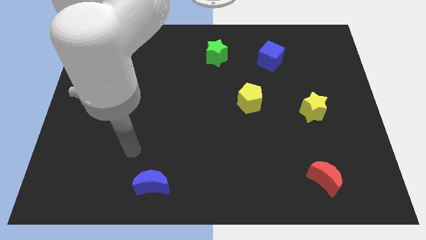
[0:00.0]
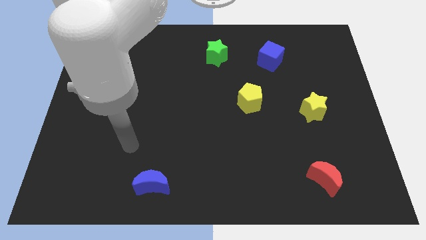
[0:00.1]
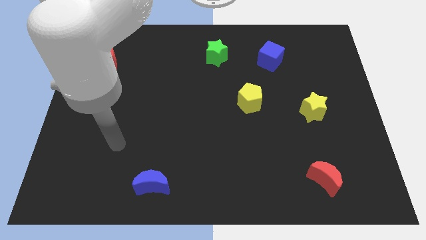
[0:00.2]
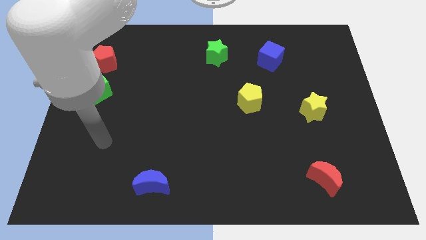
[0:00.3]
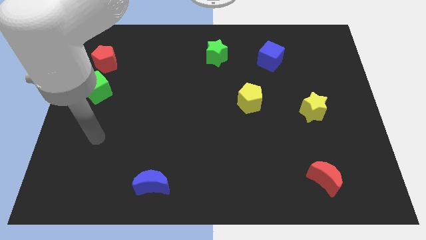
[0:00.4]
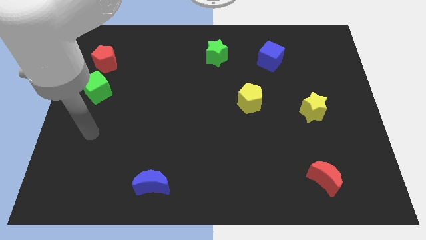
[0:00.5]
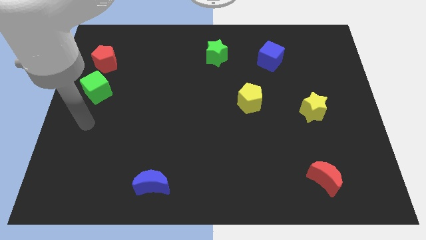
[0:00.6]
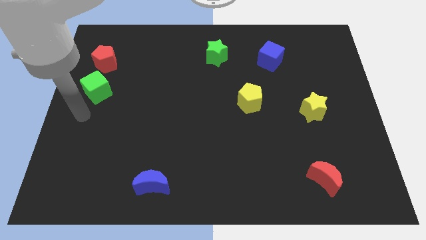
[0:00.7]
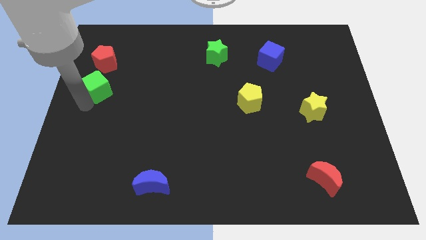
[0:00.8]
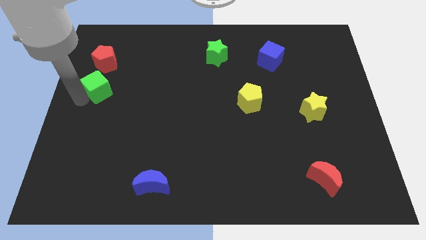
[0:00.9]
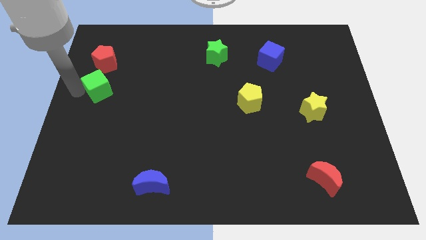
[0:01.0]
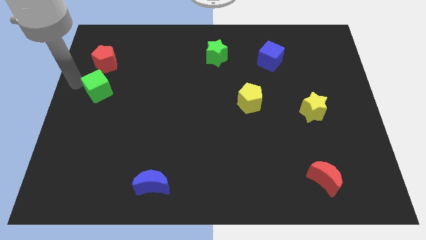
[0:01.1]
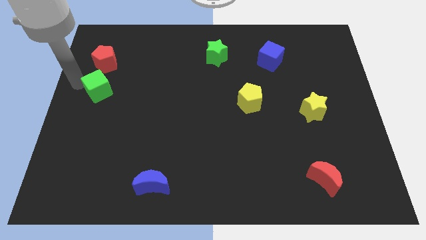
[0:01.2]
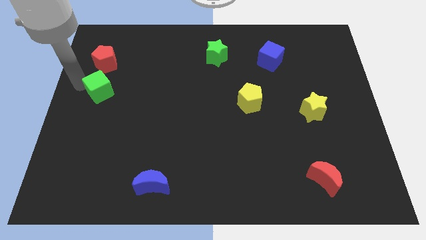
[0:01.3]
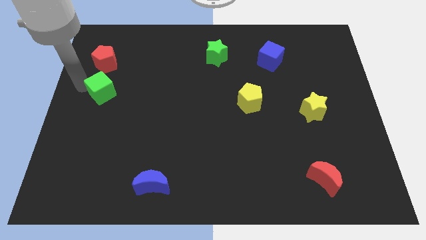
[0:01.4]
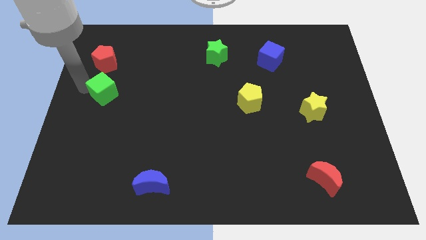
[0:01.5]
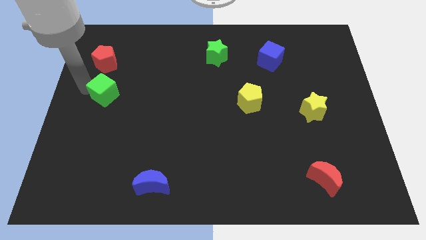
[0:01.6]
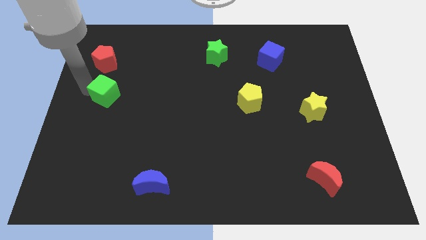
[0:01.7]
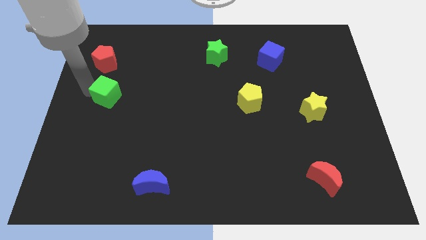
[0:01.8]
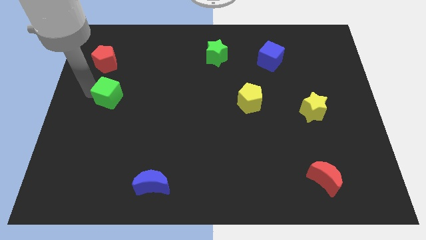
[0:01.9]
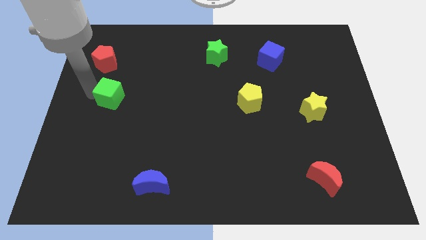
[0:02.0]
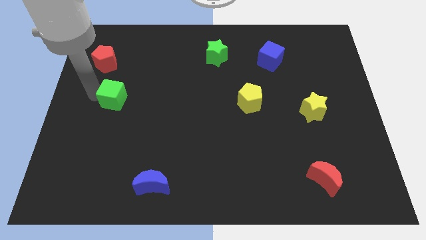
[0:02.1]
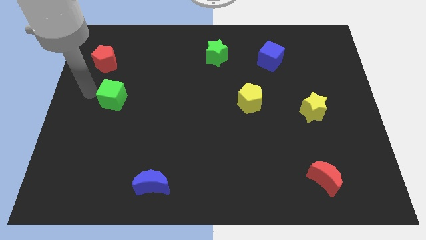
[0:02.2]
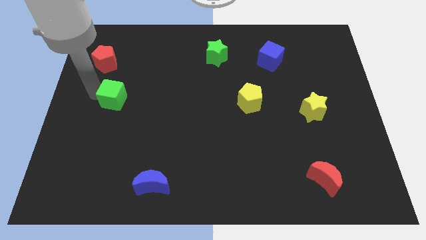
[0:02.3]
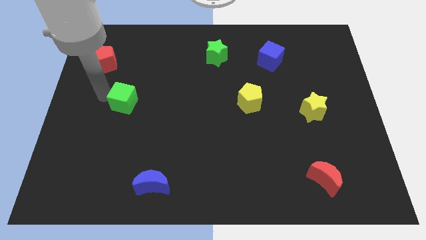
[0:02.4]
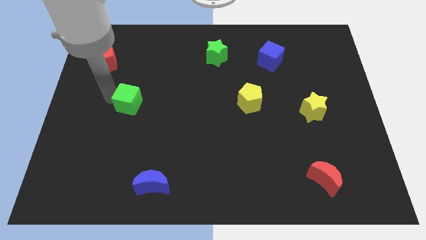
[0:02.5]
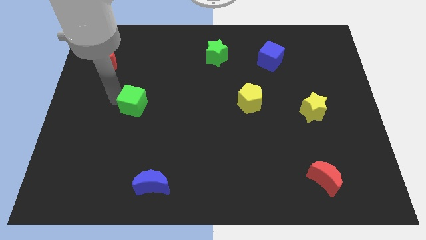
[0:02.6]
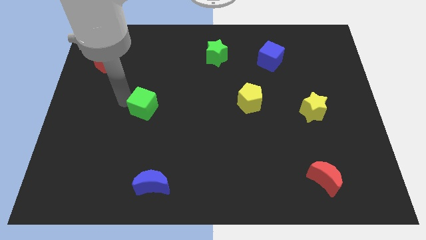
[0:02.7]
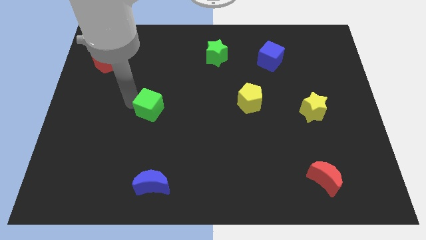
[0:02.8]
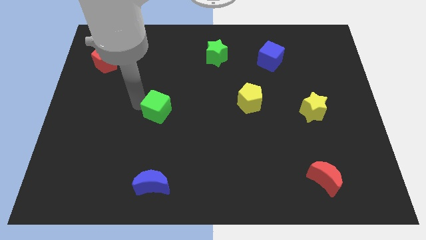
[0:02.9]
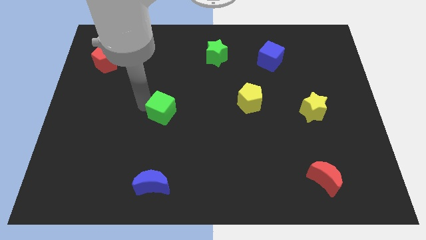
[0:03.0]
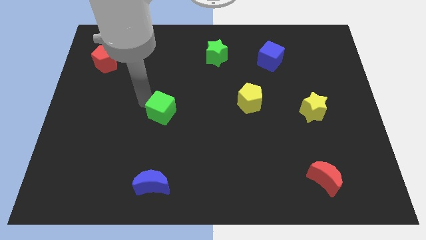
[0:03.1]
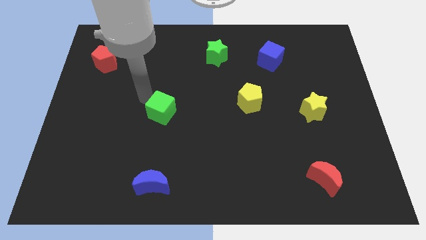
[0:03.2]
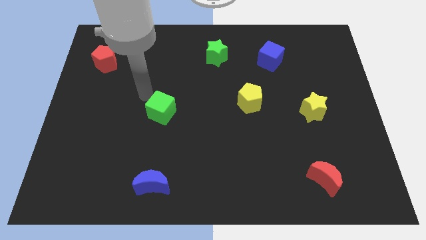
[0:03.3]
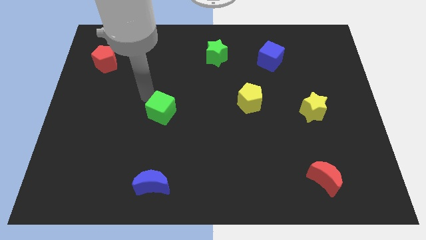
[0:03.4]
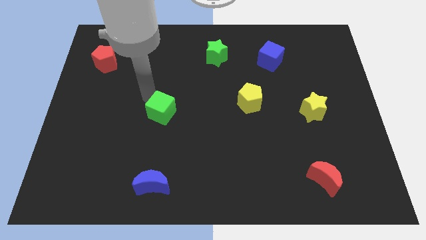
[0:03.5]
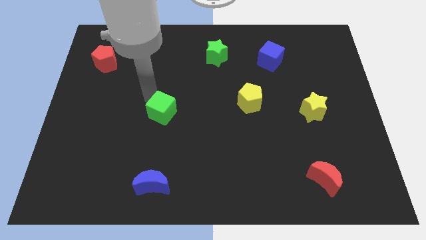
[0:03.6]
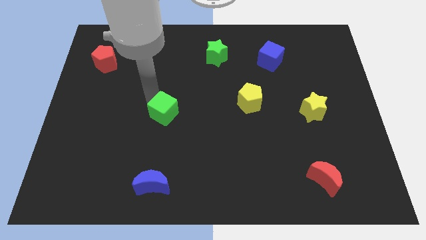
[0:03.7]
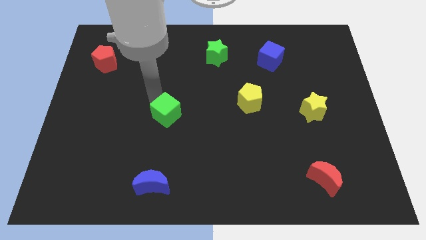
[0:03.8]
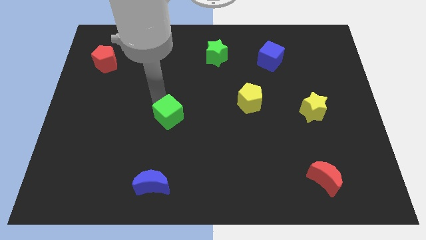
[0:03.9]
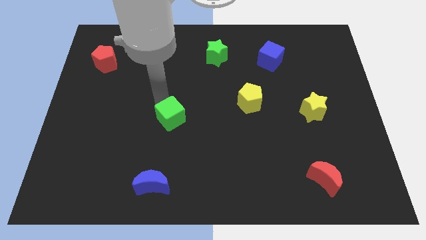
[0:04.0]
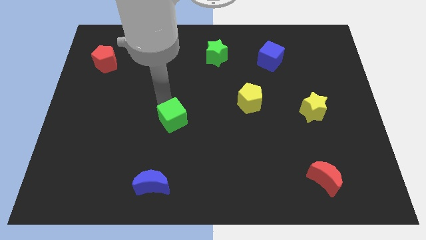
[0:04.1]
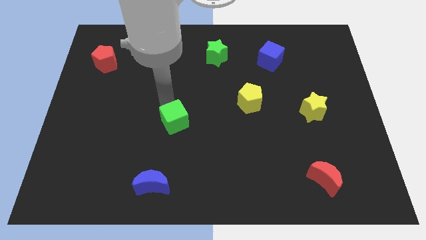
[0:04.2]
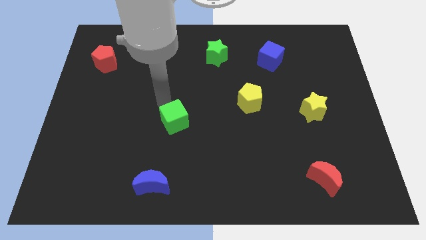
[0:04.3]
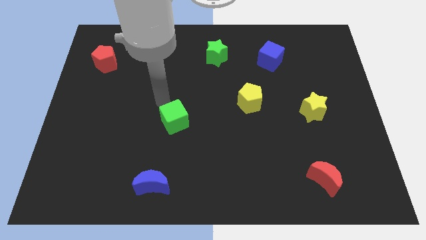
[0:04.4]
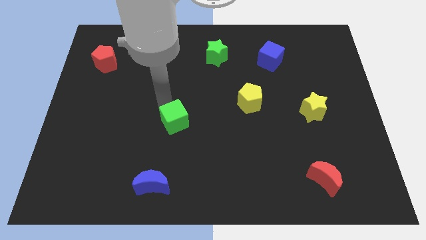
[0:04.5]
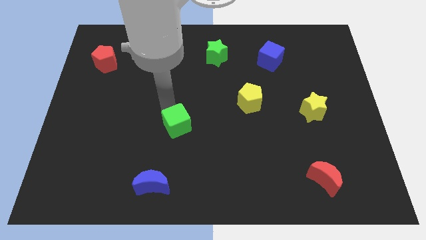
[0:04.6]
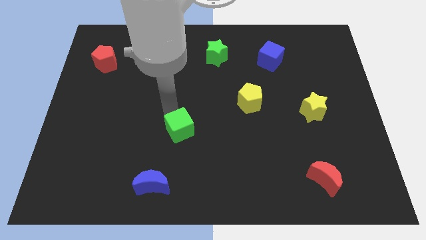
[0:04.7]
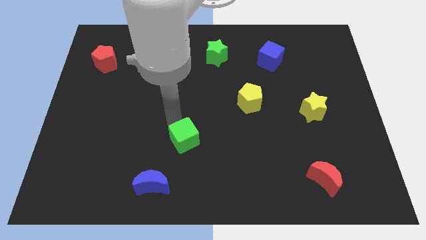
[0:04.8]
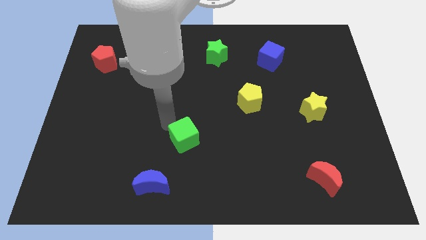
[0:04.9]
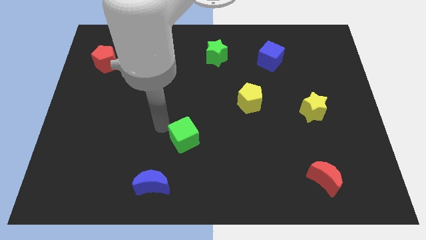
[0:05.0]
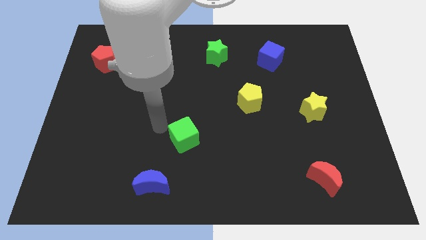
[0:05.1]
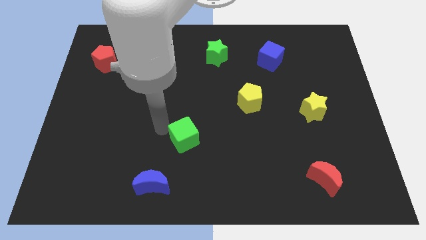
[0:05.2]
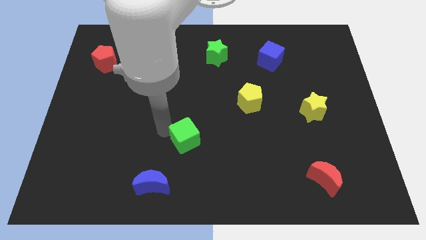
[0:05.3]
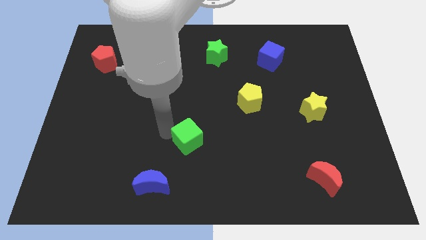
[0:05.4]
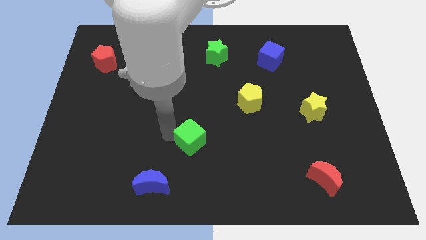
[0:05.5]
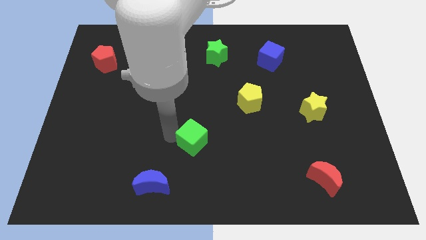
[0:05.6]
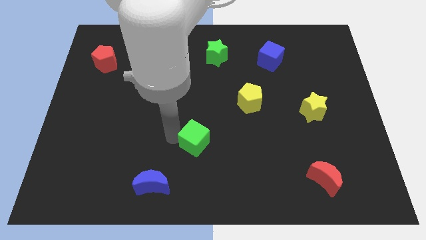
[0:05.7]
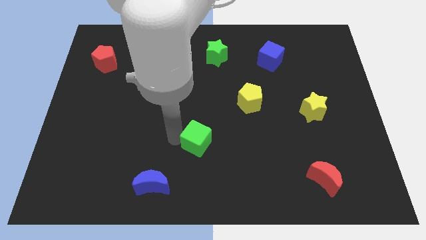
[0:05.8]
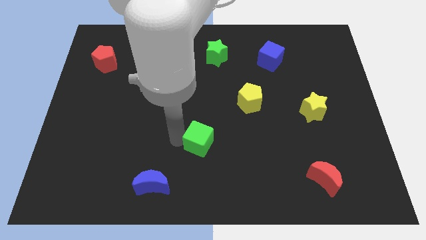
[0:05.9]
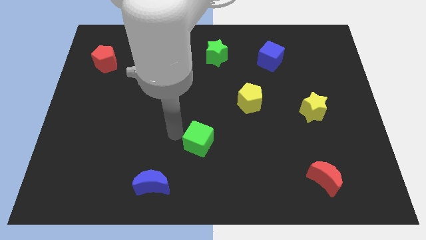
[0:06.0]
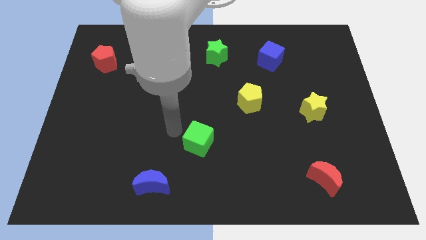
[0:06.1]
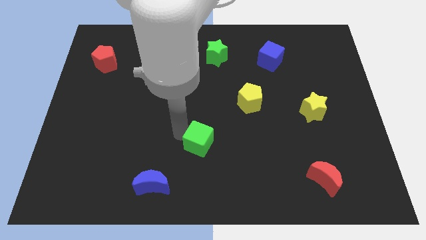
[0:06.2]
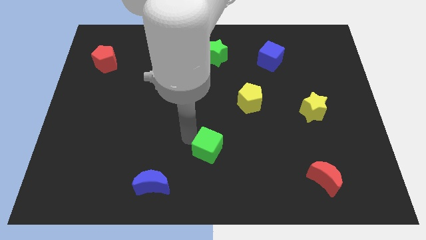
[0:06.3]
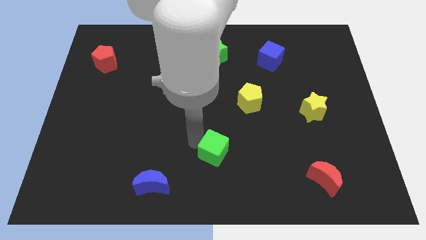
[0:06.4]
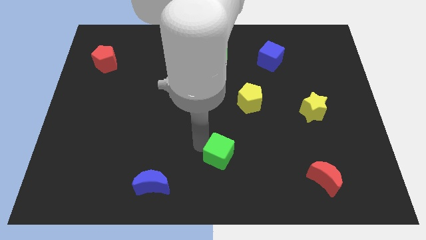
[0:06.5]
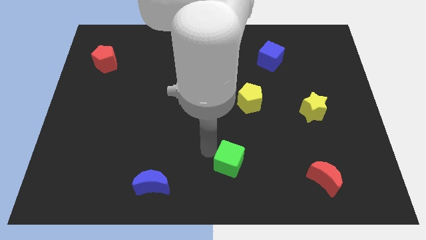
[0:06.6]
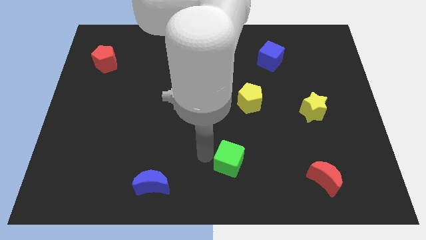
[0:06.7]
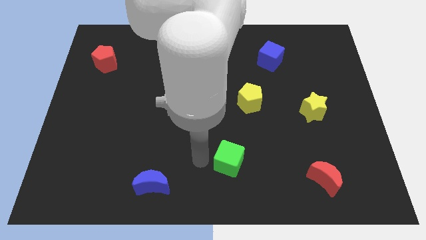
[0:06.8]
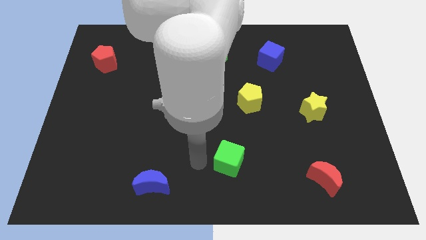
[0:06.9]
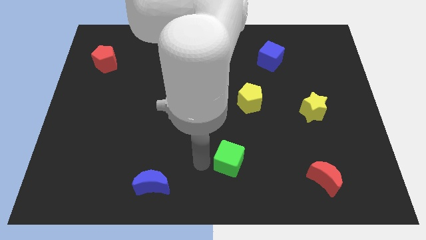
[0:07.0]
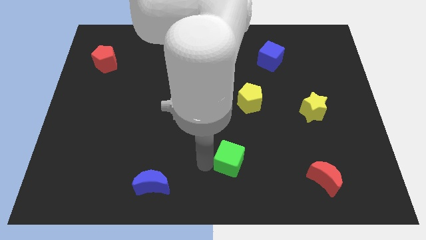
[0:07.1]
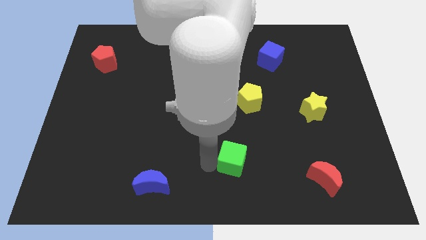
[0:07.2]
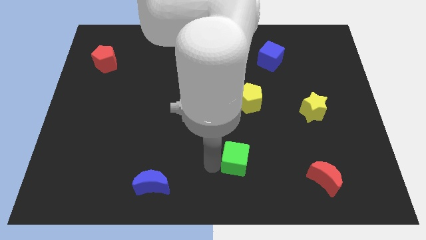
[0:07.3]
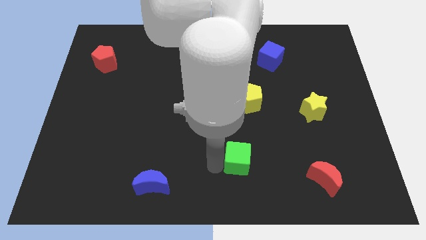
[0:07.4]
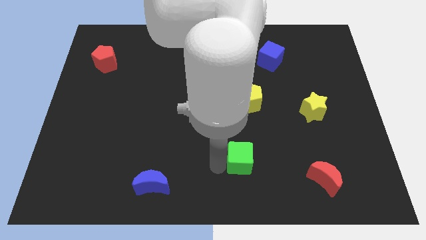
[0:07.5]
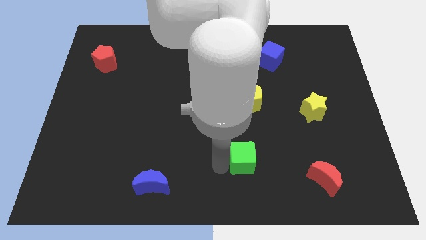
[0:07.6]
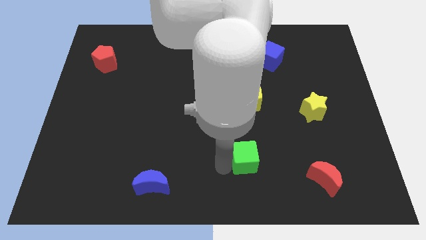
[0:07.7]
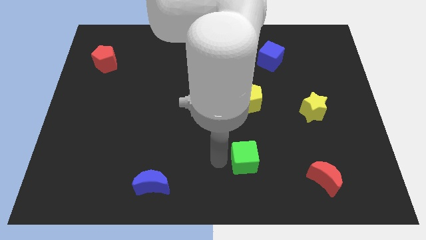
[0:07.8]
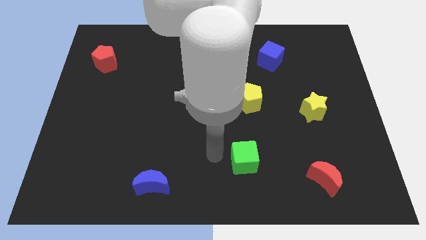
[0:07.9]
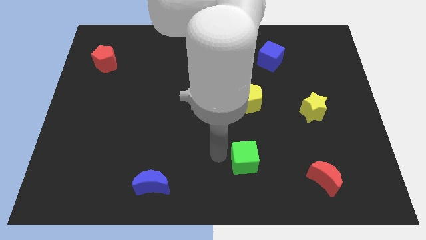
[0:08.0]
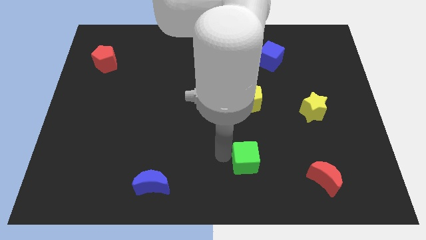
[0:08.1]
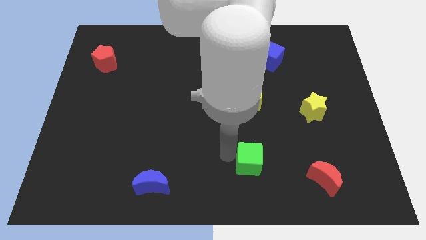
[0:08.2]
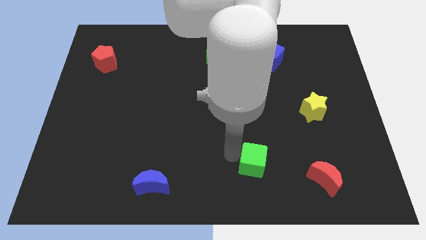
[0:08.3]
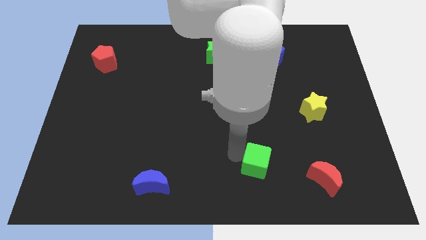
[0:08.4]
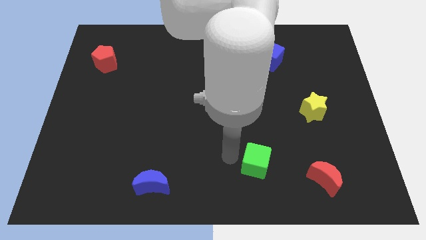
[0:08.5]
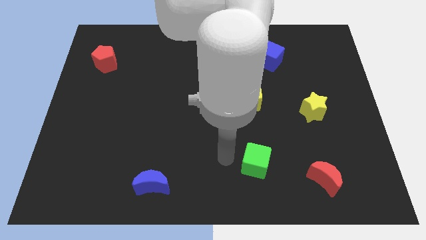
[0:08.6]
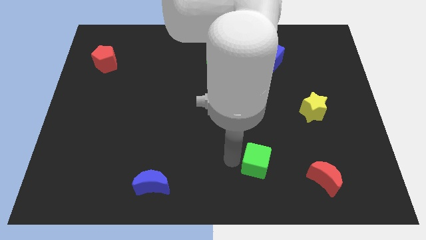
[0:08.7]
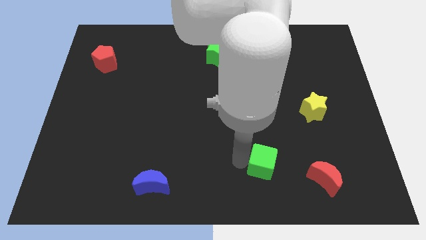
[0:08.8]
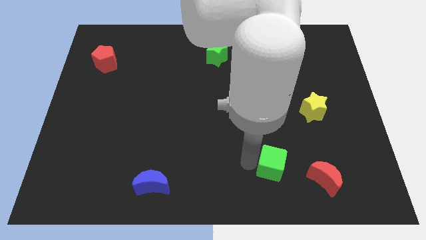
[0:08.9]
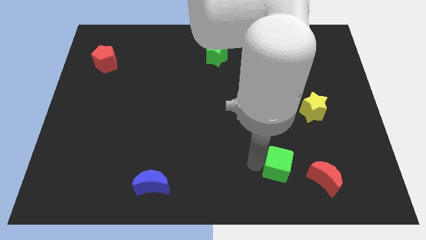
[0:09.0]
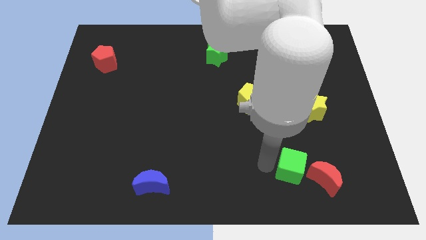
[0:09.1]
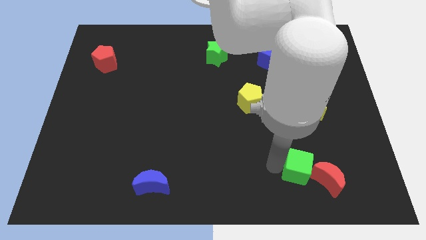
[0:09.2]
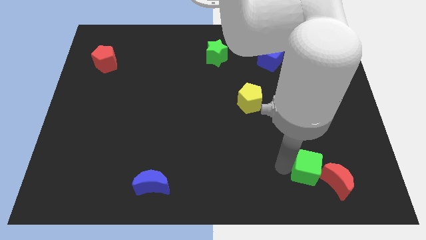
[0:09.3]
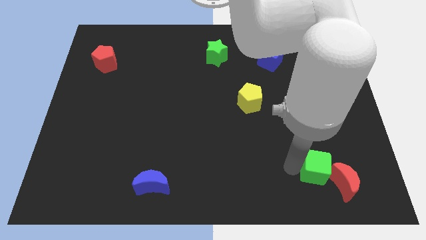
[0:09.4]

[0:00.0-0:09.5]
put the green cube next to the red moon
